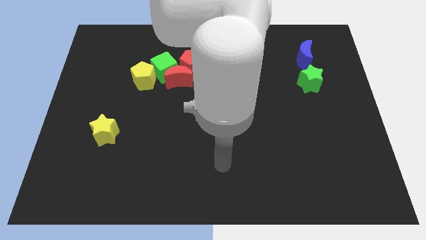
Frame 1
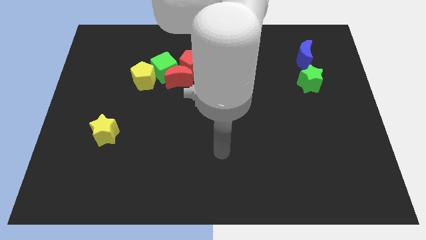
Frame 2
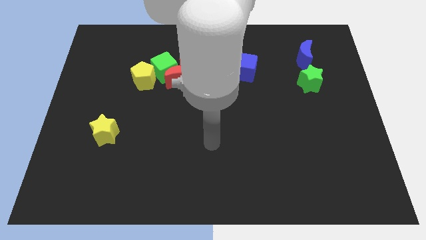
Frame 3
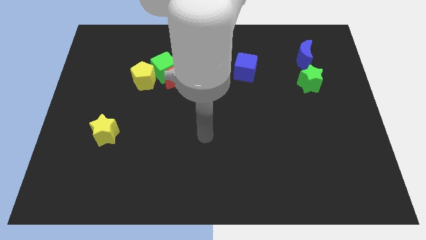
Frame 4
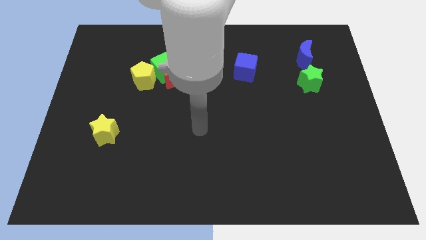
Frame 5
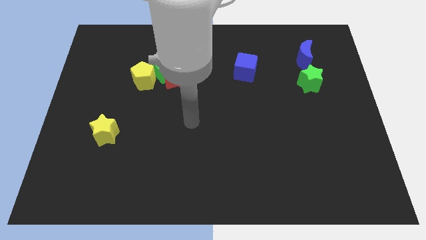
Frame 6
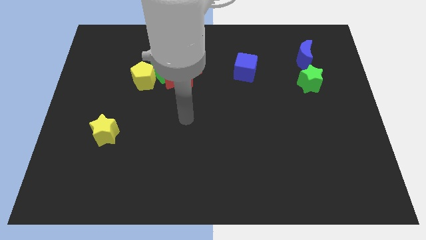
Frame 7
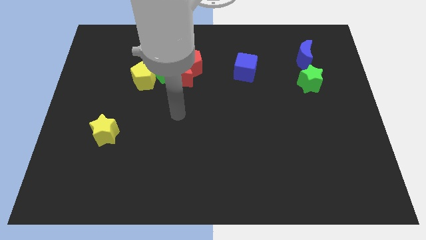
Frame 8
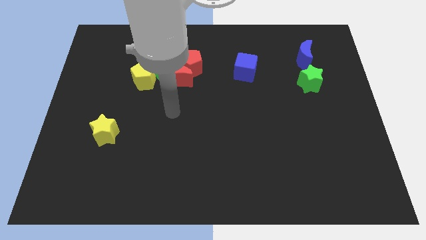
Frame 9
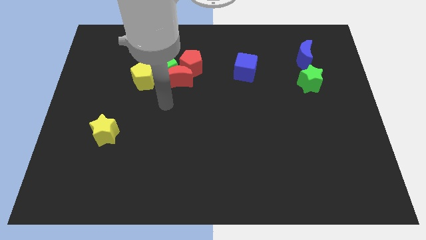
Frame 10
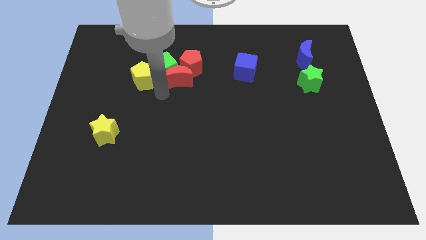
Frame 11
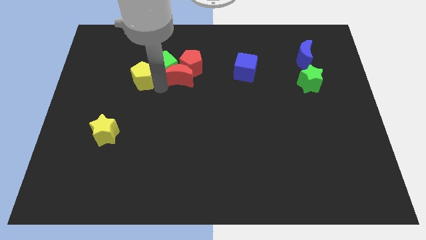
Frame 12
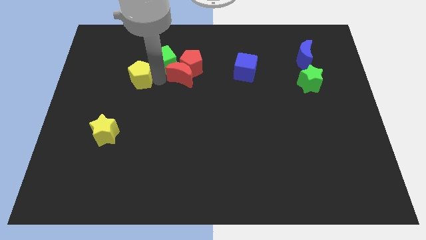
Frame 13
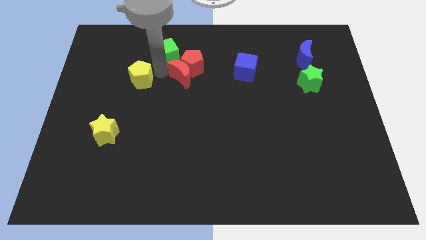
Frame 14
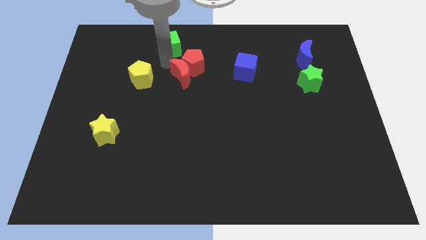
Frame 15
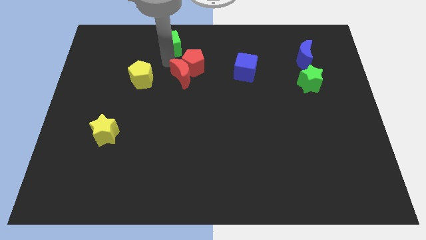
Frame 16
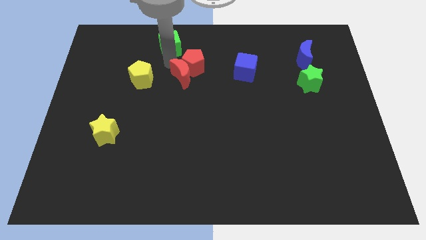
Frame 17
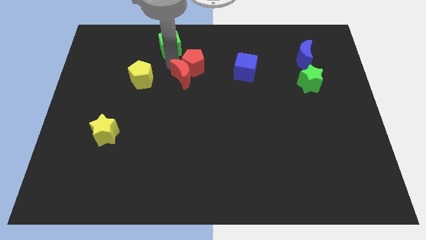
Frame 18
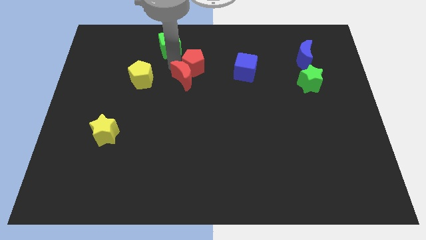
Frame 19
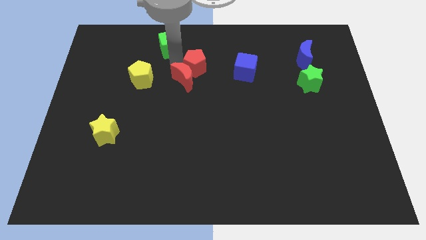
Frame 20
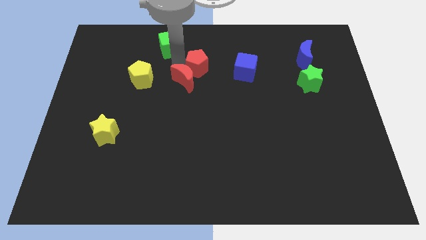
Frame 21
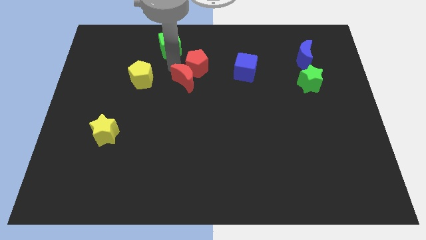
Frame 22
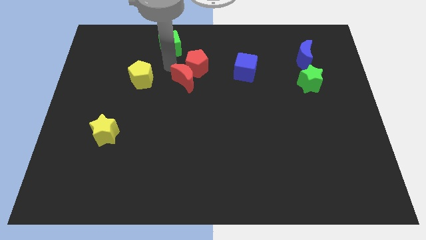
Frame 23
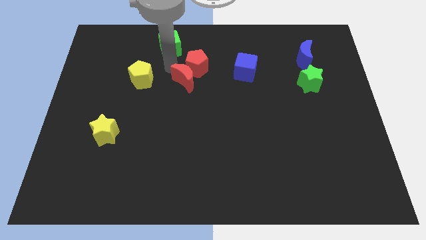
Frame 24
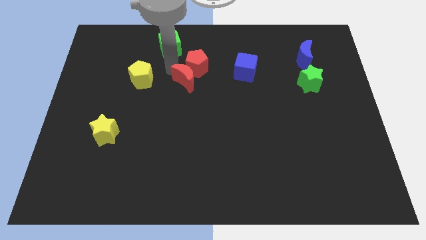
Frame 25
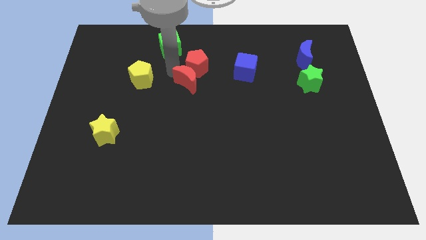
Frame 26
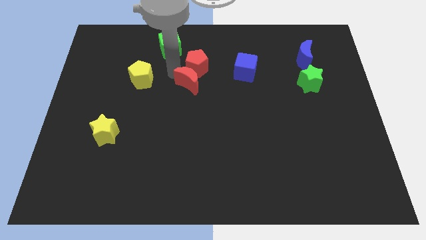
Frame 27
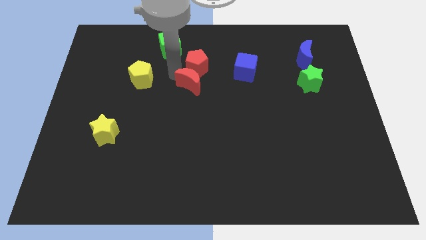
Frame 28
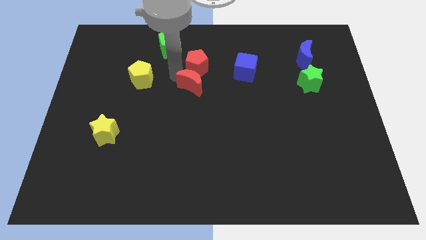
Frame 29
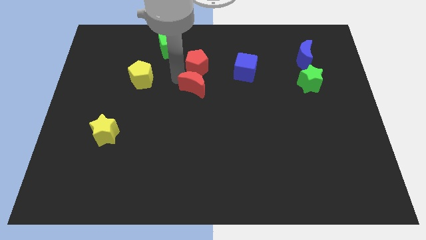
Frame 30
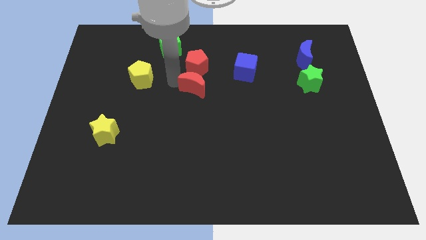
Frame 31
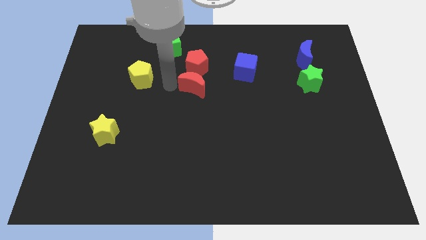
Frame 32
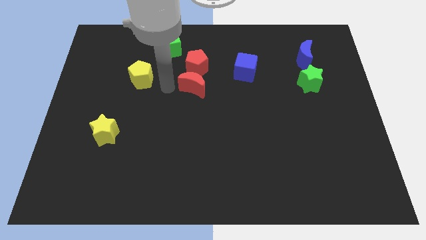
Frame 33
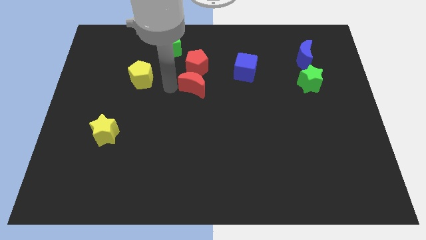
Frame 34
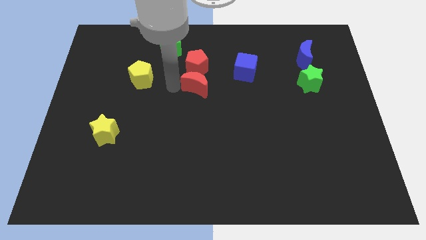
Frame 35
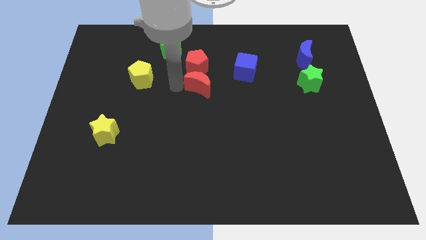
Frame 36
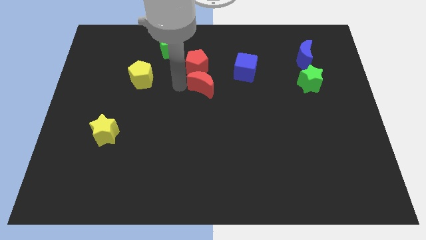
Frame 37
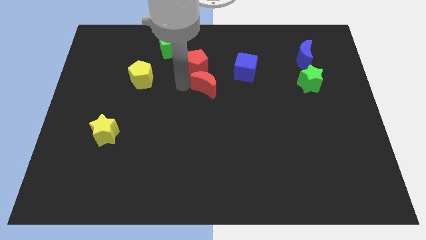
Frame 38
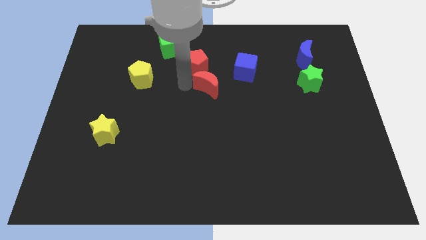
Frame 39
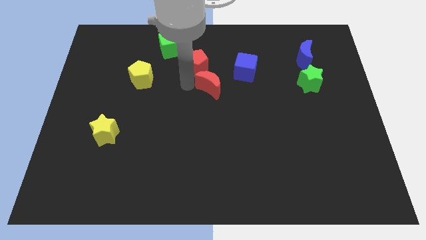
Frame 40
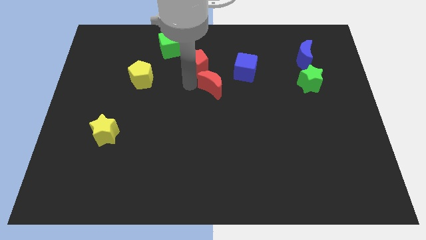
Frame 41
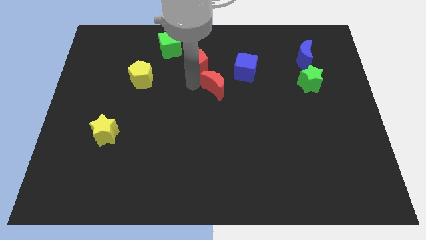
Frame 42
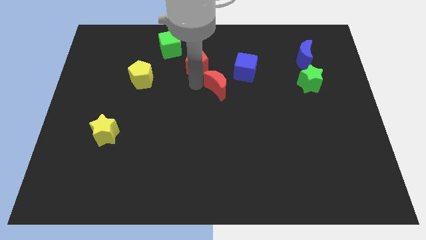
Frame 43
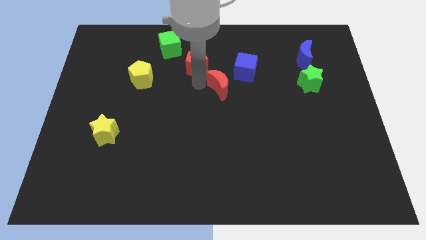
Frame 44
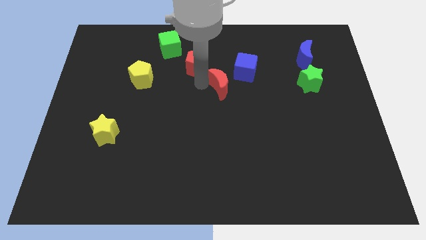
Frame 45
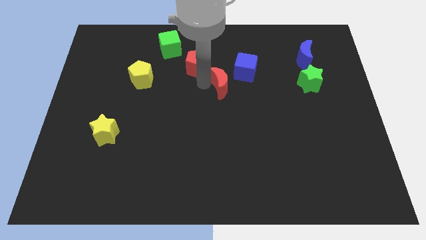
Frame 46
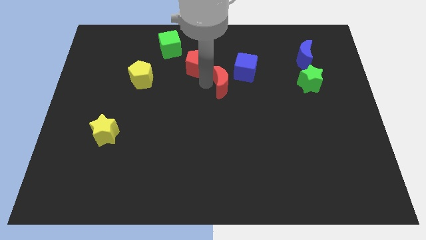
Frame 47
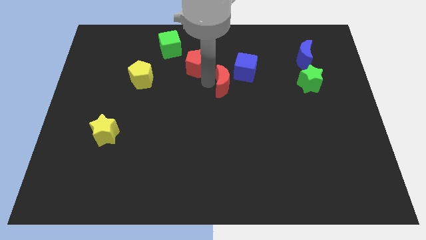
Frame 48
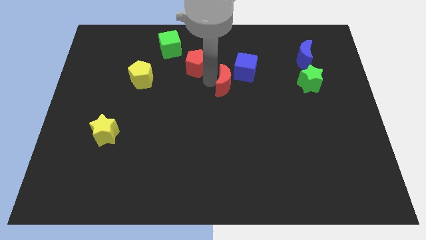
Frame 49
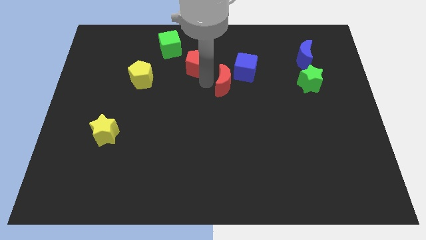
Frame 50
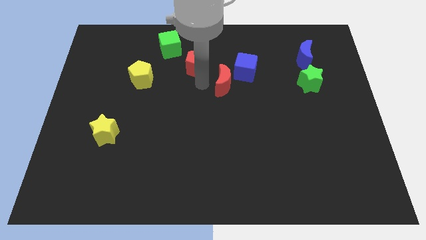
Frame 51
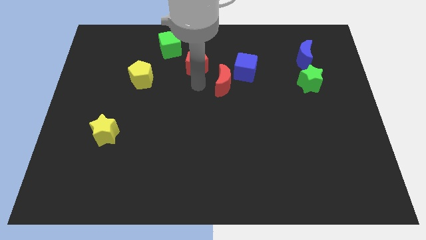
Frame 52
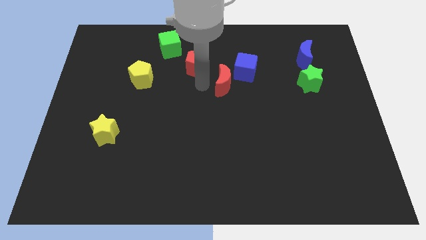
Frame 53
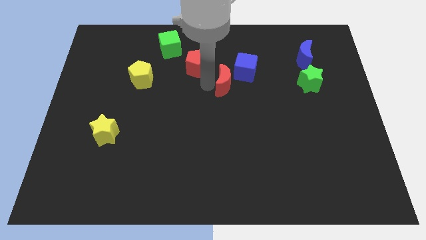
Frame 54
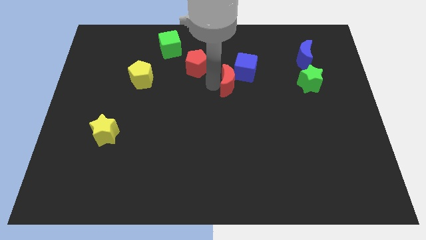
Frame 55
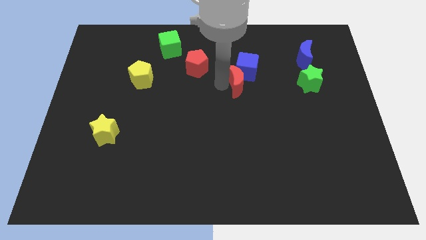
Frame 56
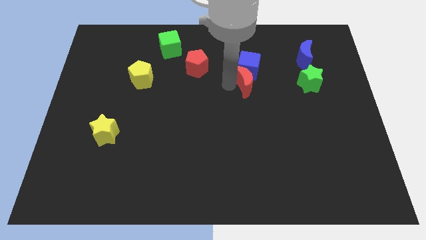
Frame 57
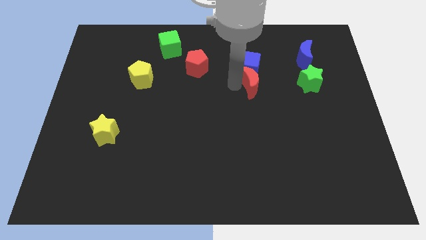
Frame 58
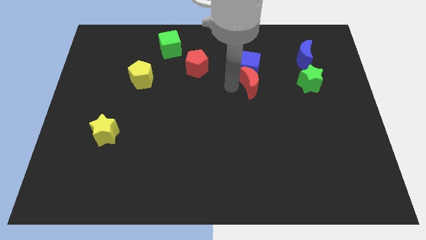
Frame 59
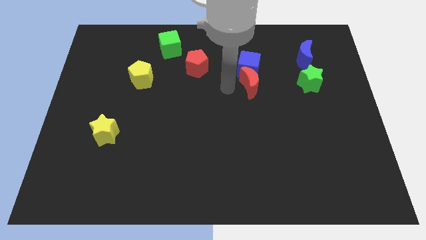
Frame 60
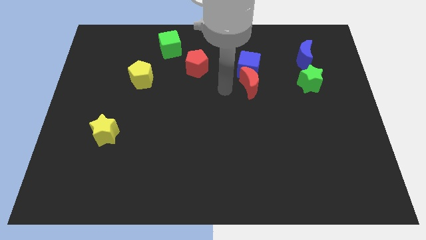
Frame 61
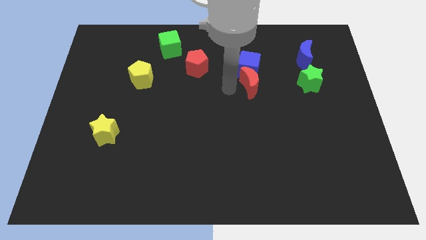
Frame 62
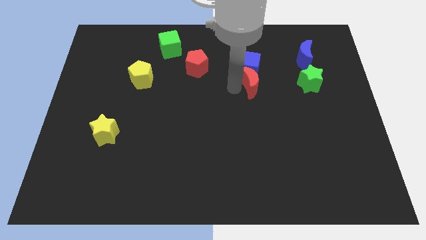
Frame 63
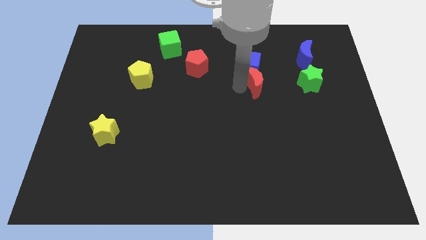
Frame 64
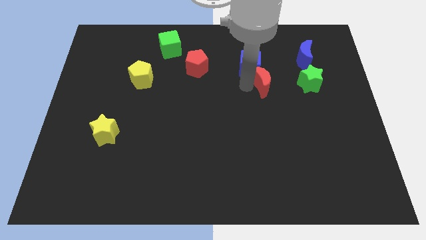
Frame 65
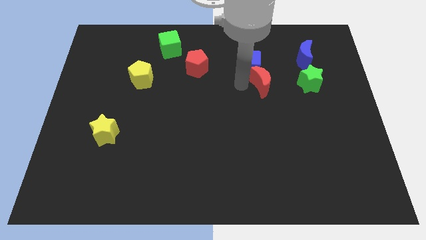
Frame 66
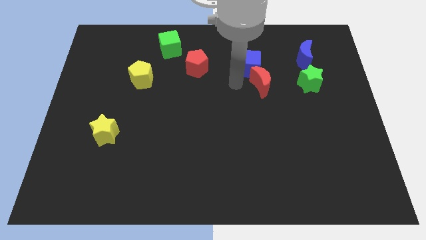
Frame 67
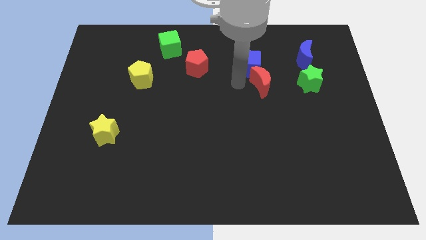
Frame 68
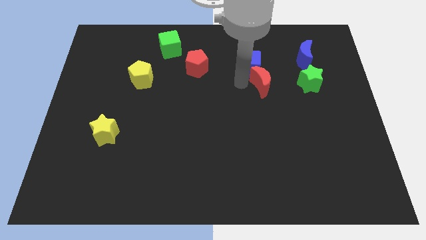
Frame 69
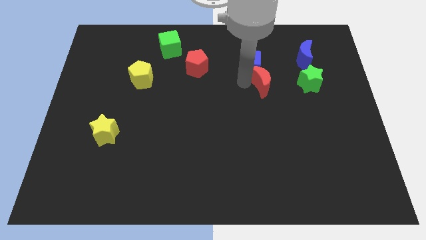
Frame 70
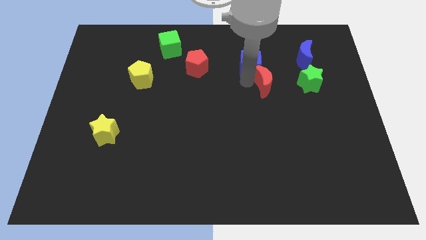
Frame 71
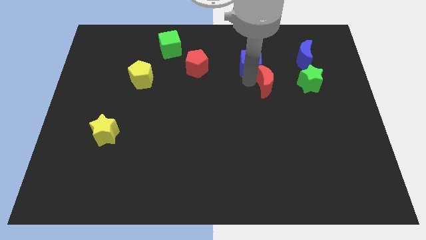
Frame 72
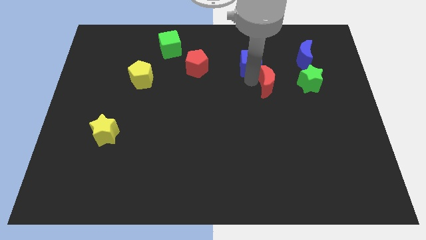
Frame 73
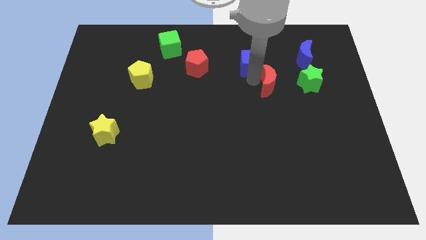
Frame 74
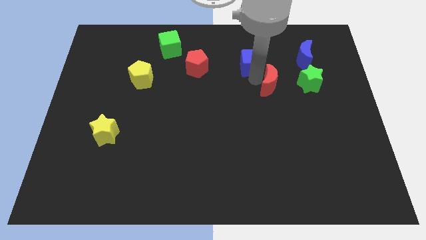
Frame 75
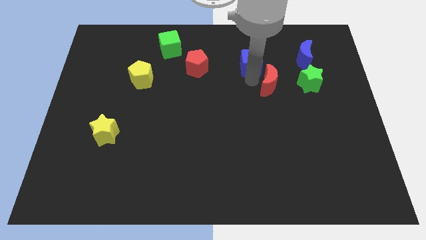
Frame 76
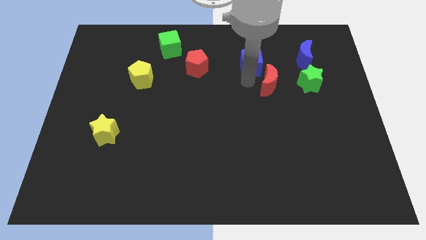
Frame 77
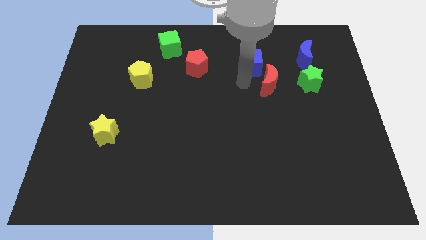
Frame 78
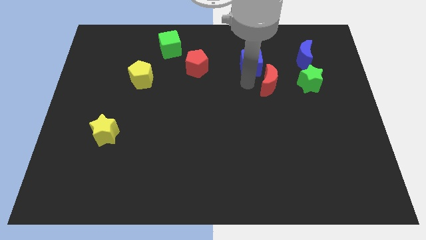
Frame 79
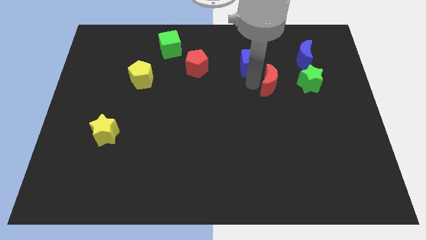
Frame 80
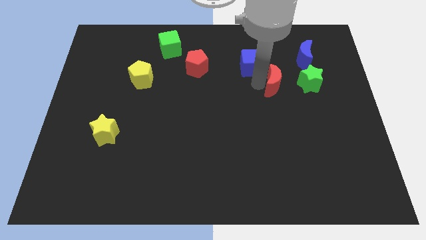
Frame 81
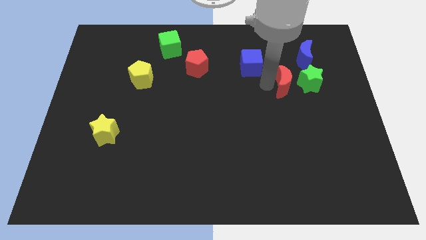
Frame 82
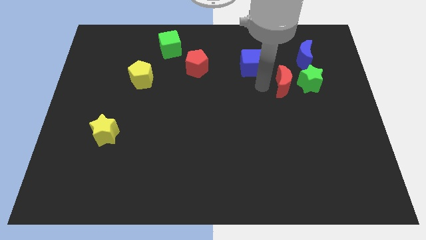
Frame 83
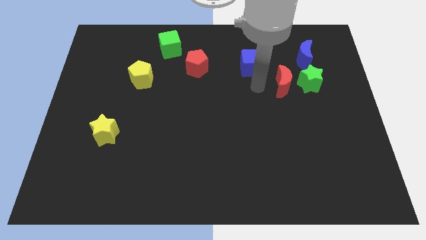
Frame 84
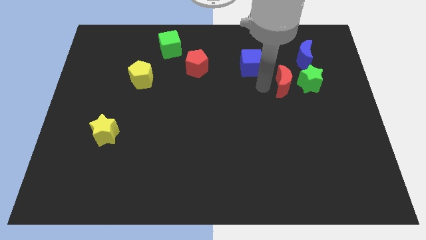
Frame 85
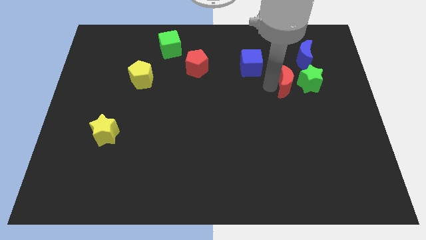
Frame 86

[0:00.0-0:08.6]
put the red moon to the green star
